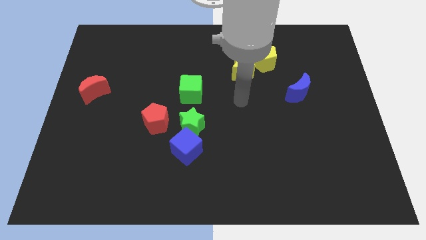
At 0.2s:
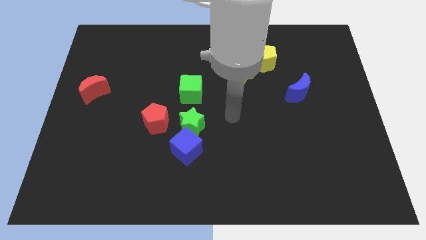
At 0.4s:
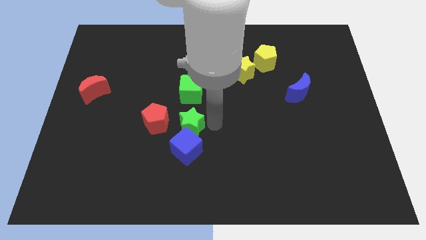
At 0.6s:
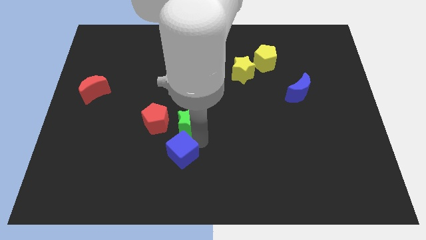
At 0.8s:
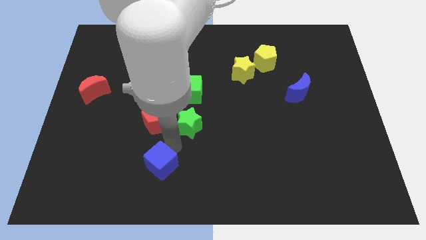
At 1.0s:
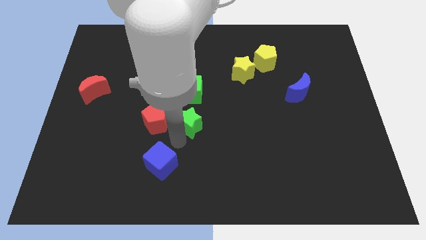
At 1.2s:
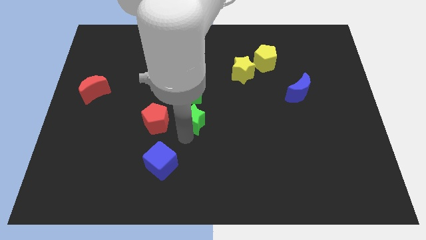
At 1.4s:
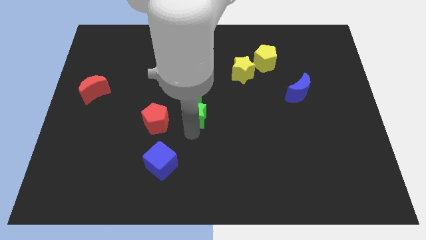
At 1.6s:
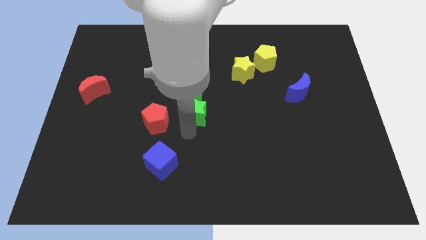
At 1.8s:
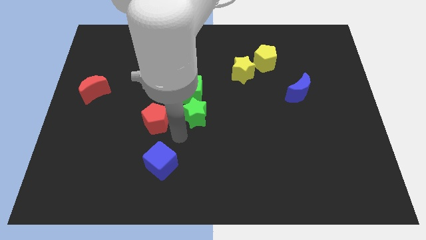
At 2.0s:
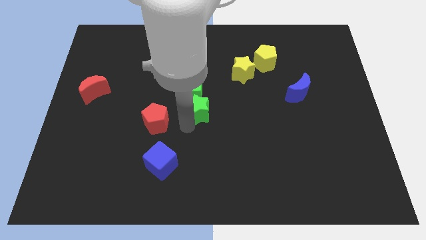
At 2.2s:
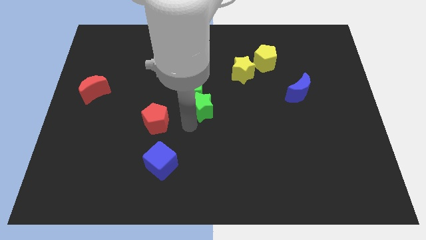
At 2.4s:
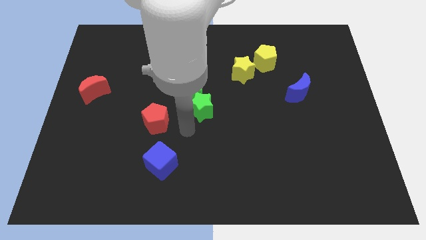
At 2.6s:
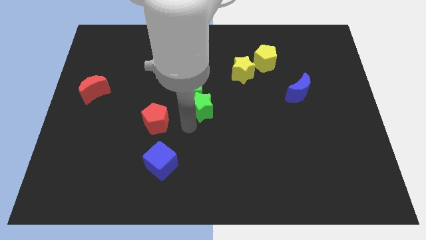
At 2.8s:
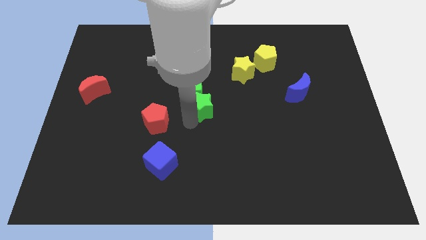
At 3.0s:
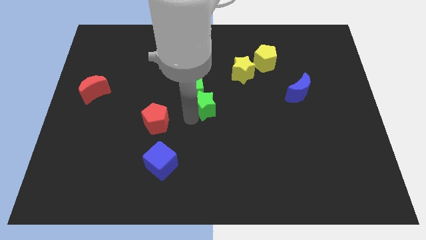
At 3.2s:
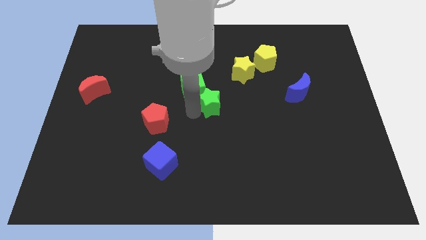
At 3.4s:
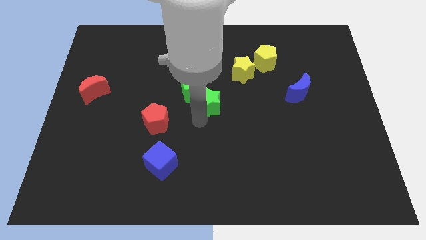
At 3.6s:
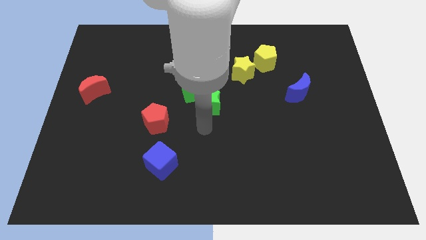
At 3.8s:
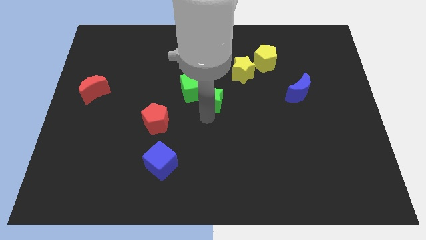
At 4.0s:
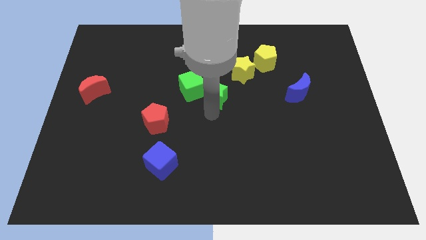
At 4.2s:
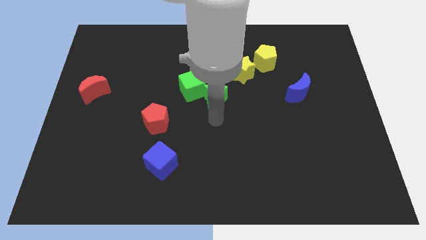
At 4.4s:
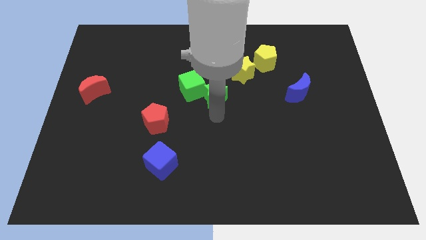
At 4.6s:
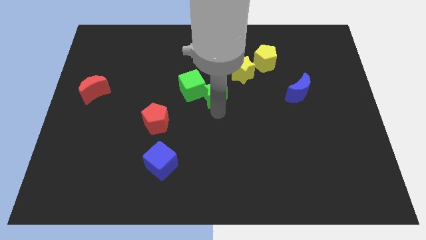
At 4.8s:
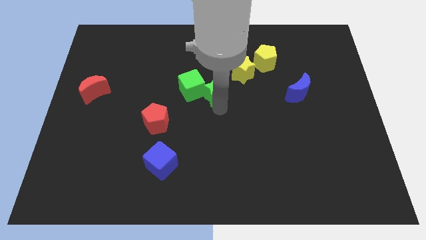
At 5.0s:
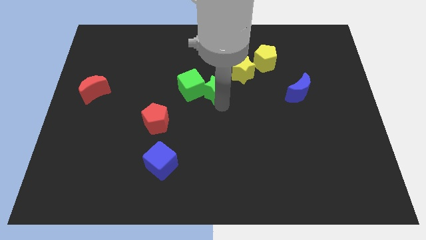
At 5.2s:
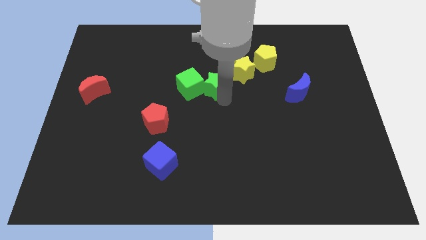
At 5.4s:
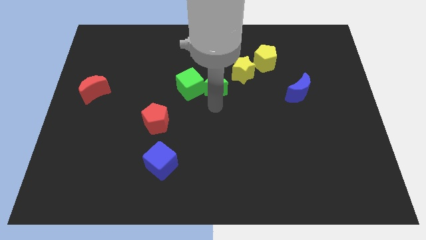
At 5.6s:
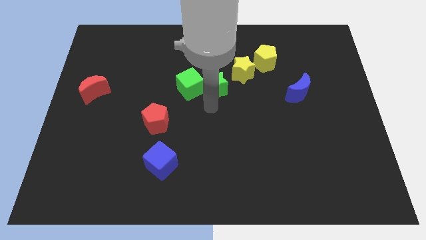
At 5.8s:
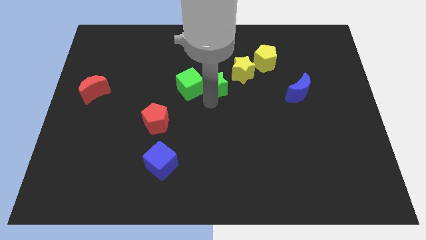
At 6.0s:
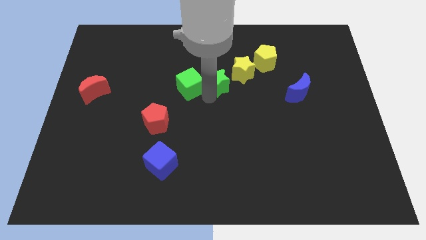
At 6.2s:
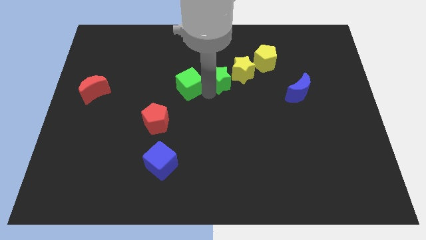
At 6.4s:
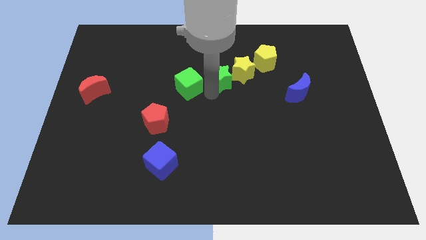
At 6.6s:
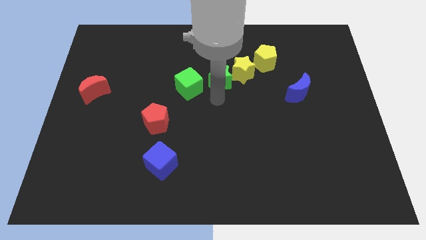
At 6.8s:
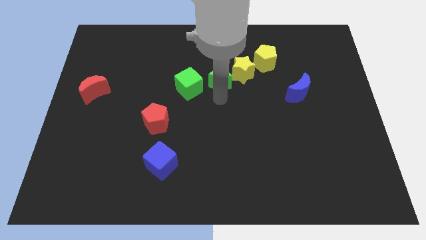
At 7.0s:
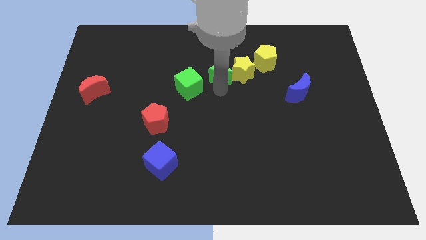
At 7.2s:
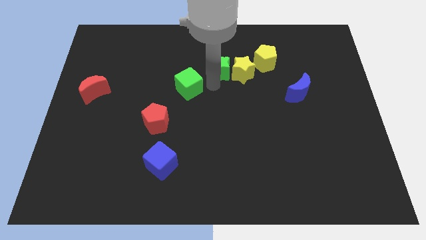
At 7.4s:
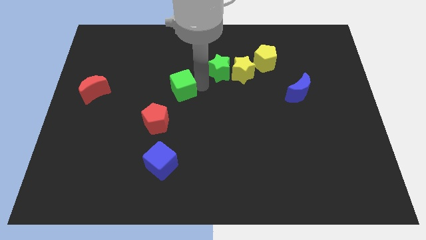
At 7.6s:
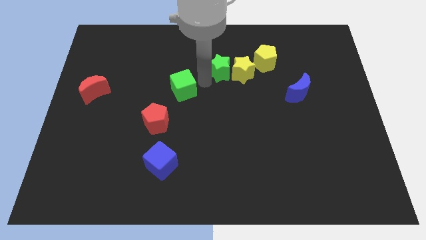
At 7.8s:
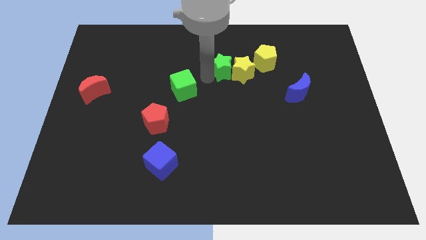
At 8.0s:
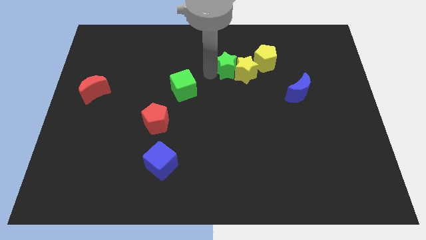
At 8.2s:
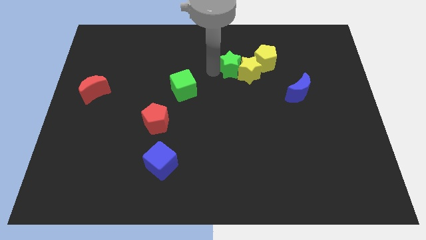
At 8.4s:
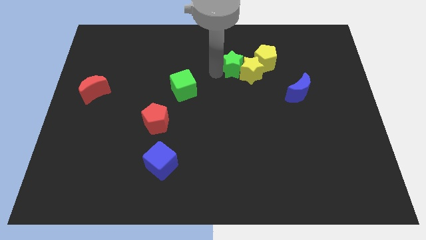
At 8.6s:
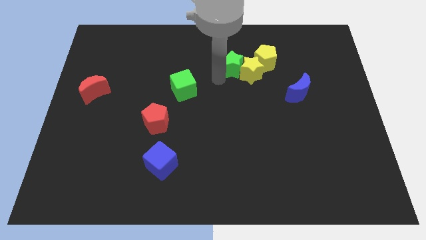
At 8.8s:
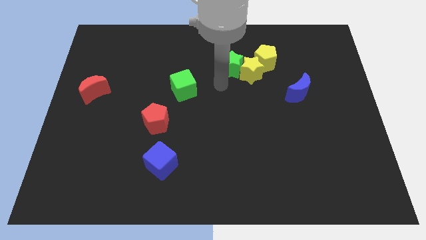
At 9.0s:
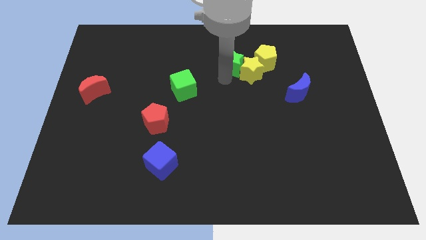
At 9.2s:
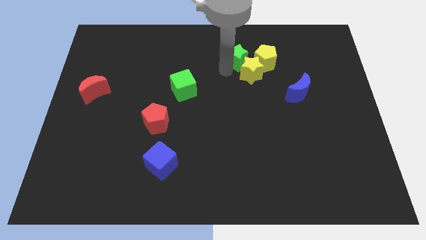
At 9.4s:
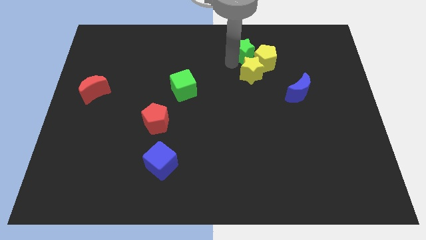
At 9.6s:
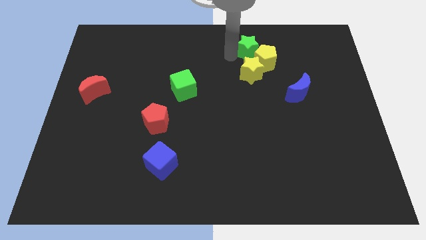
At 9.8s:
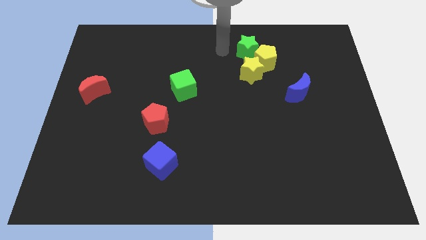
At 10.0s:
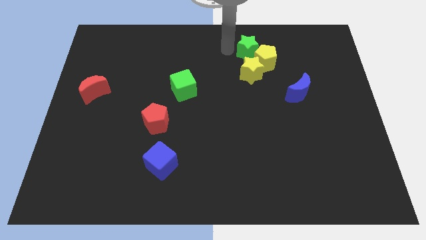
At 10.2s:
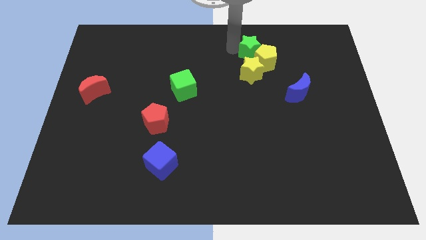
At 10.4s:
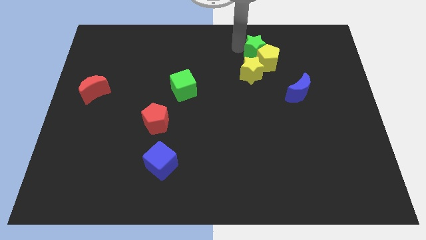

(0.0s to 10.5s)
move the green star to the top right of the yellow star

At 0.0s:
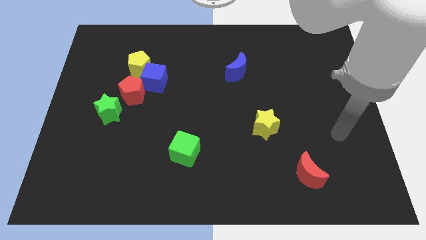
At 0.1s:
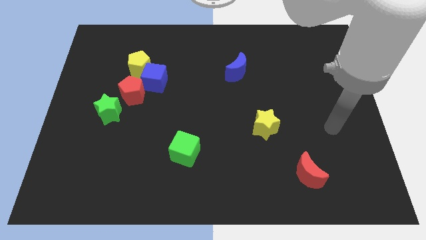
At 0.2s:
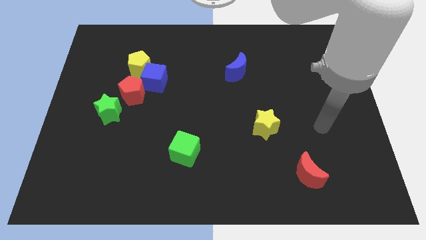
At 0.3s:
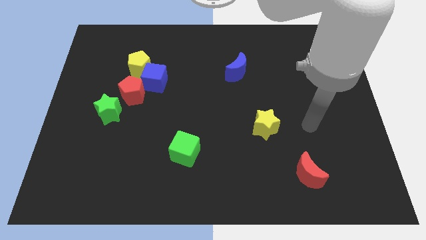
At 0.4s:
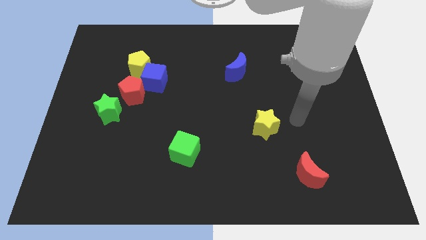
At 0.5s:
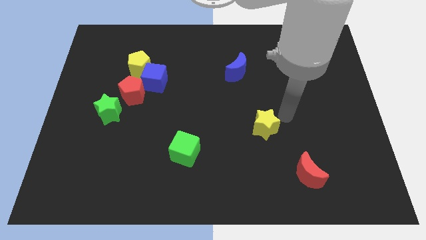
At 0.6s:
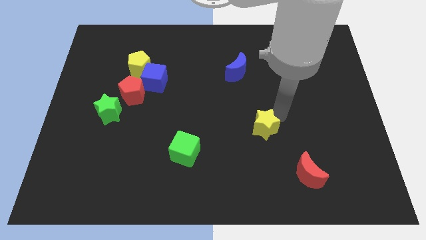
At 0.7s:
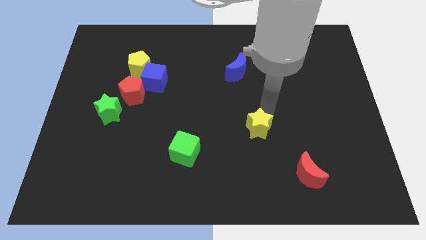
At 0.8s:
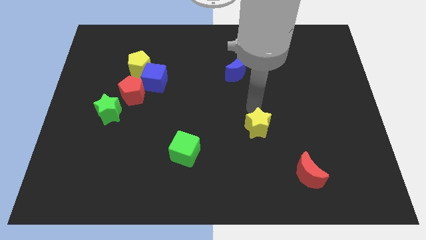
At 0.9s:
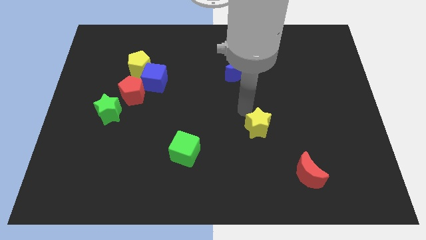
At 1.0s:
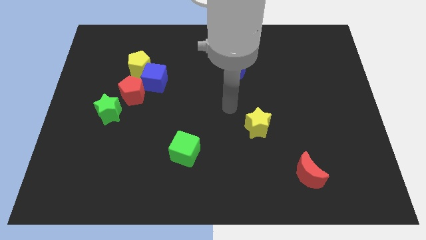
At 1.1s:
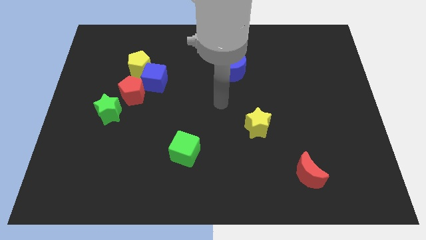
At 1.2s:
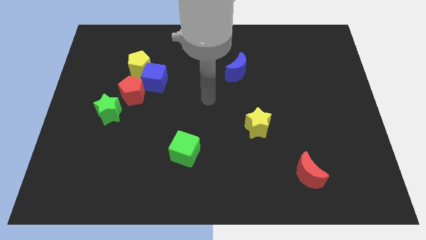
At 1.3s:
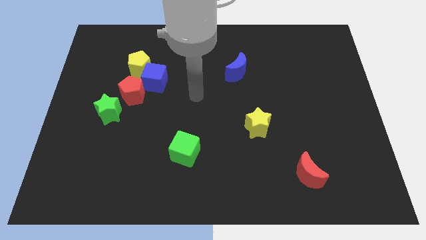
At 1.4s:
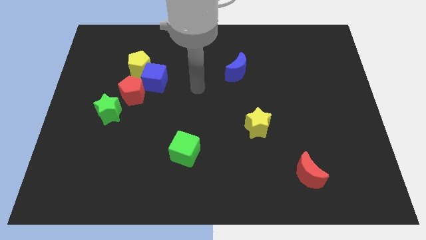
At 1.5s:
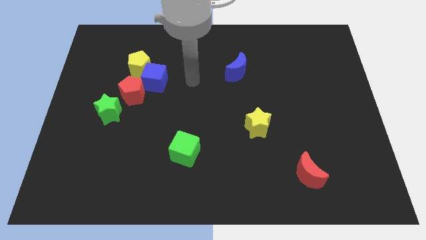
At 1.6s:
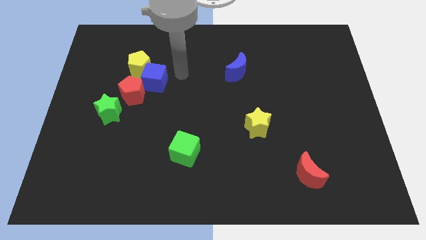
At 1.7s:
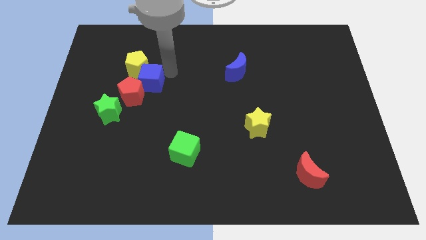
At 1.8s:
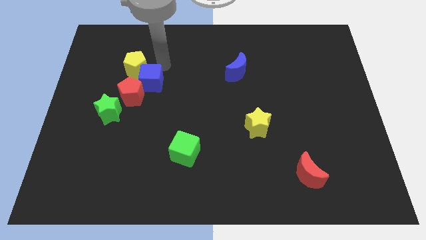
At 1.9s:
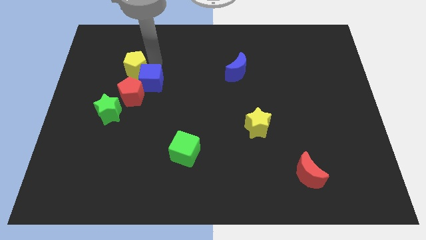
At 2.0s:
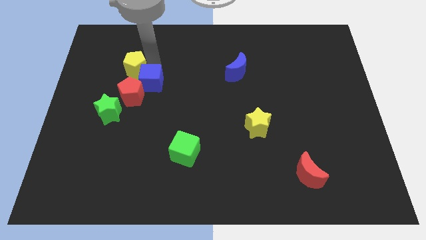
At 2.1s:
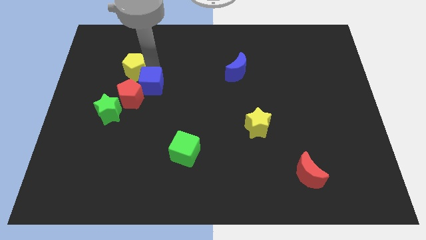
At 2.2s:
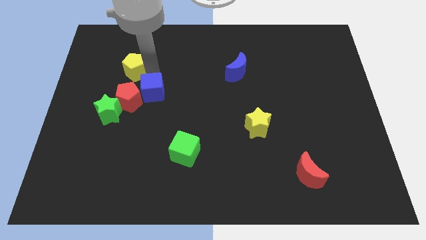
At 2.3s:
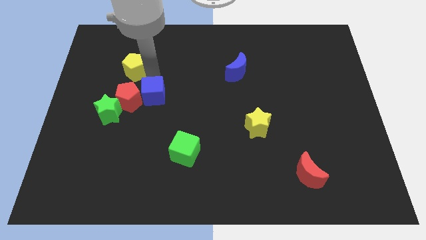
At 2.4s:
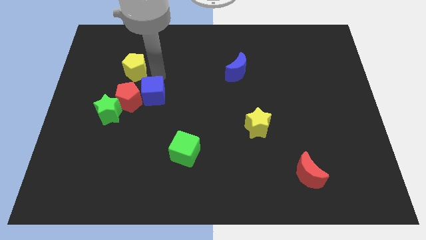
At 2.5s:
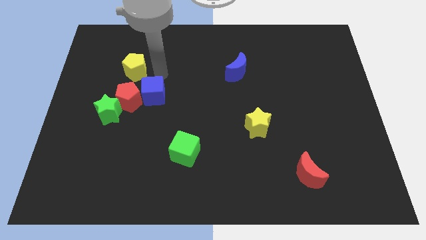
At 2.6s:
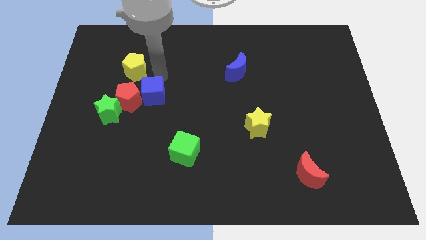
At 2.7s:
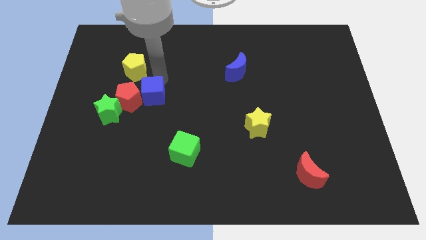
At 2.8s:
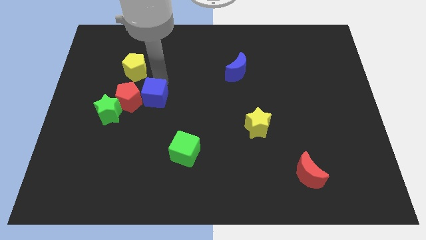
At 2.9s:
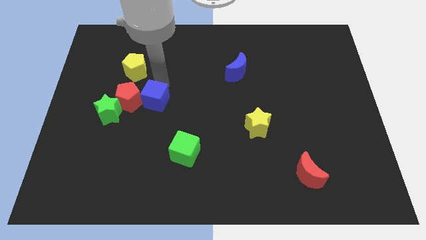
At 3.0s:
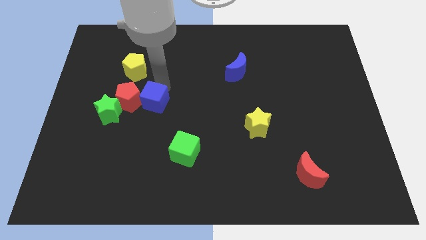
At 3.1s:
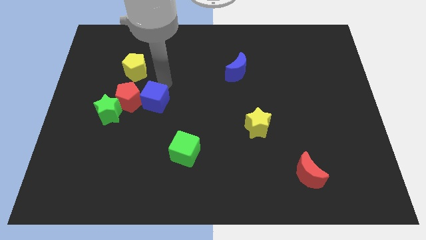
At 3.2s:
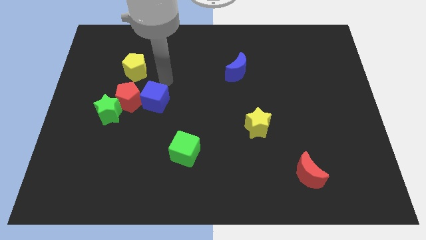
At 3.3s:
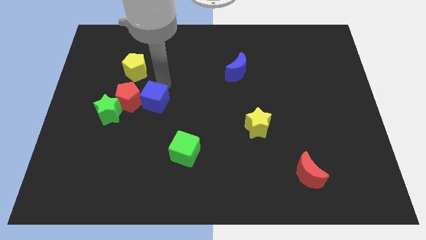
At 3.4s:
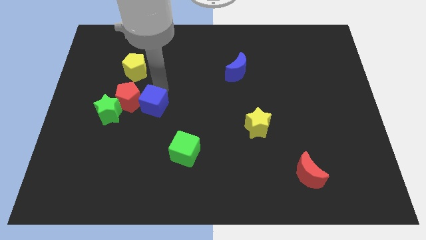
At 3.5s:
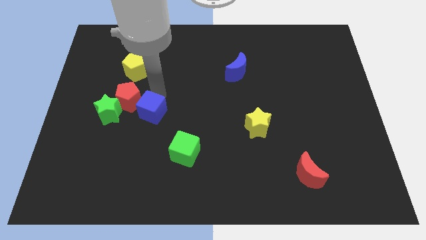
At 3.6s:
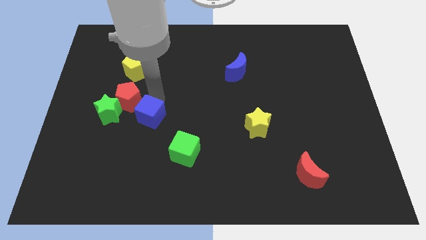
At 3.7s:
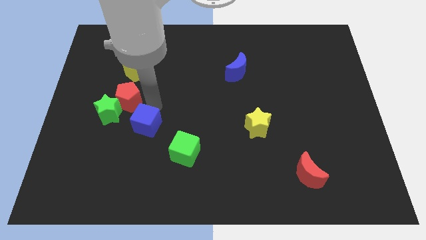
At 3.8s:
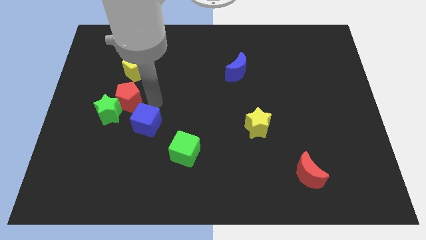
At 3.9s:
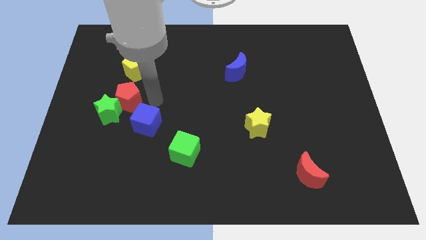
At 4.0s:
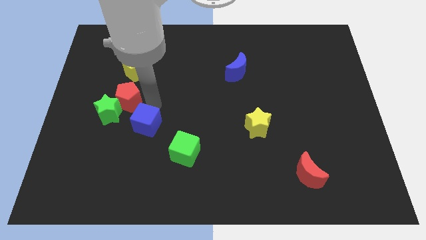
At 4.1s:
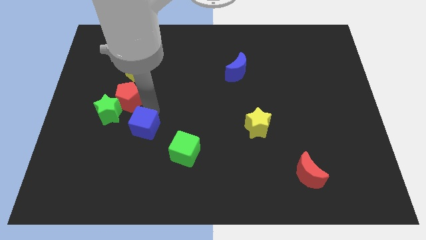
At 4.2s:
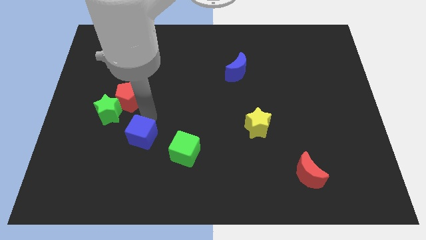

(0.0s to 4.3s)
slide the blue cube to the left of the green cube
